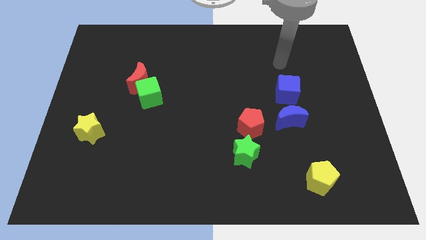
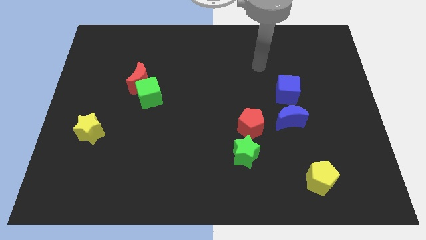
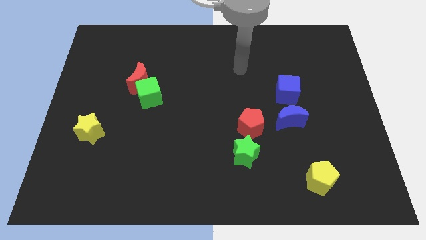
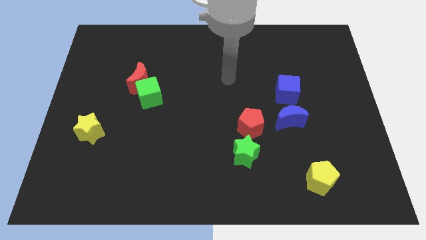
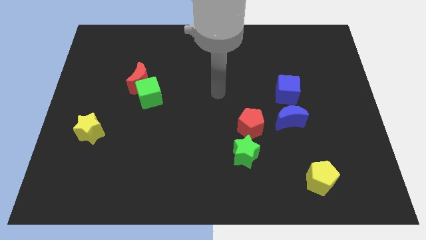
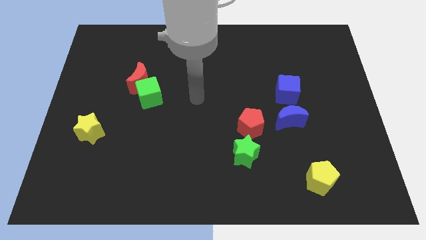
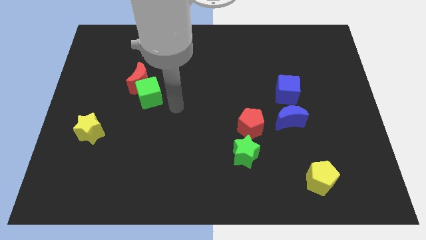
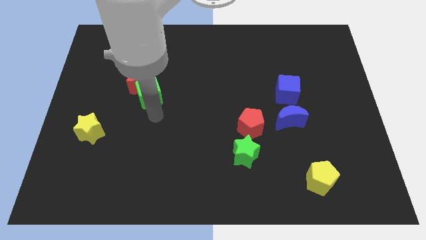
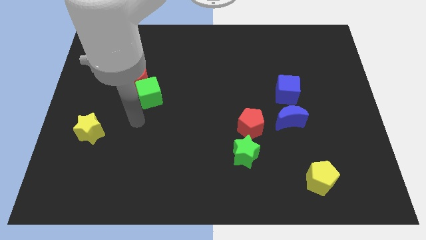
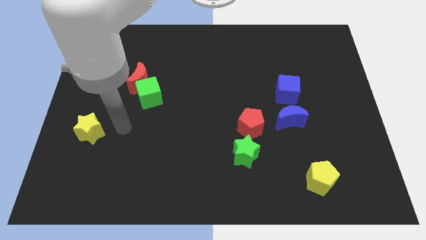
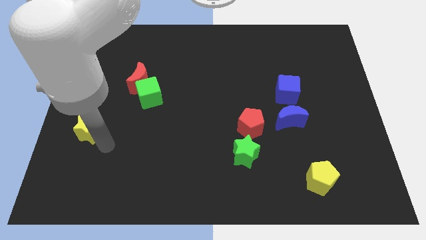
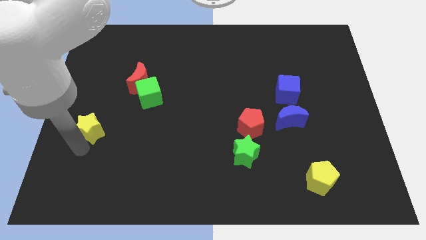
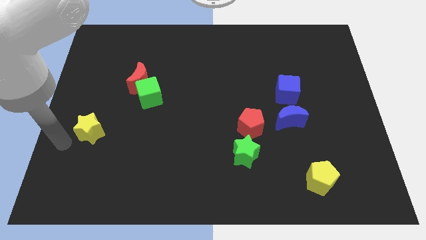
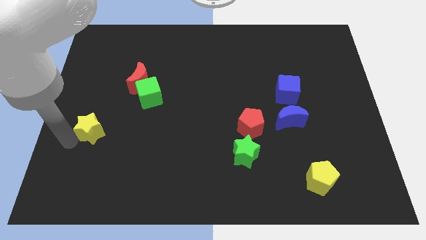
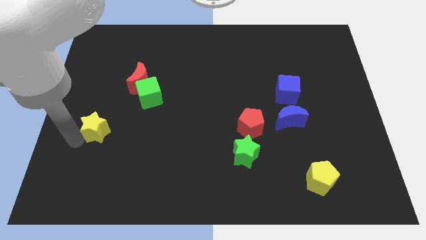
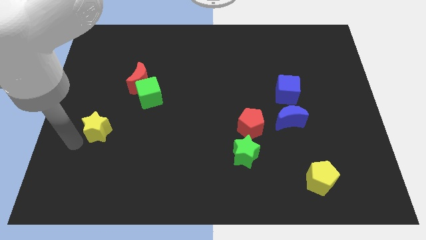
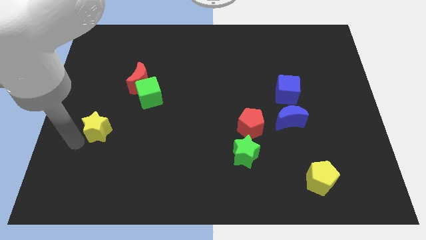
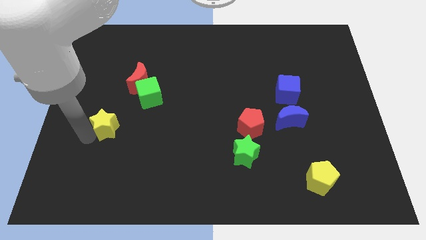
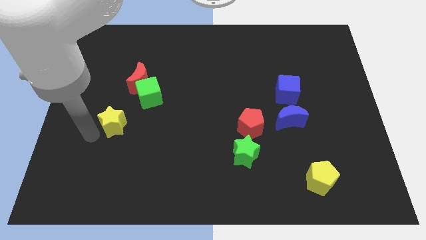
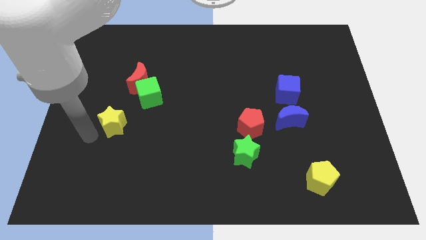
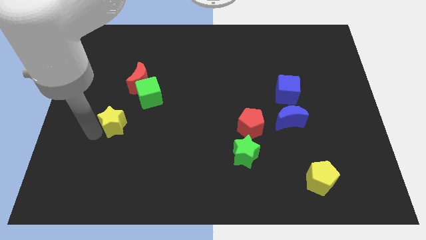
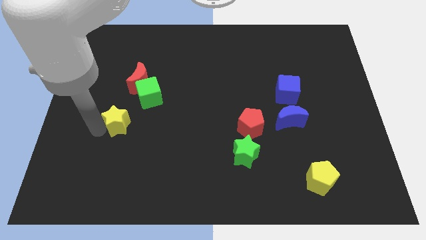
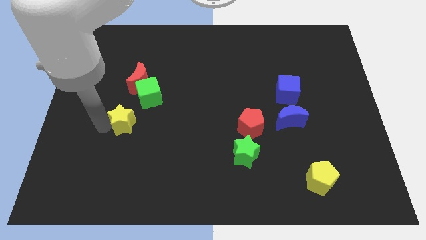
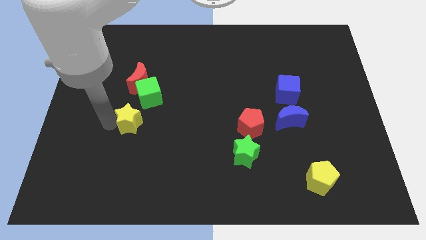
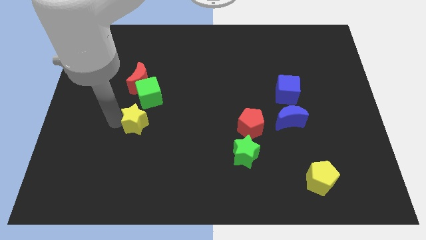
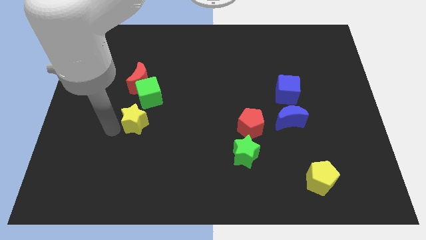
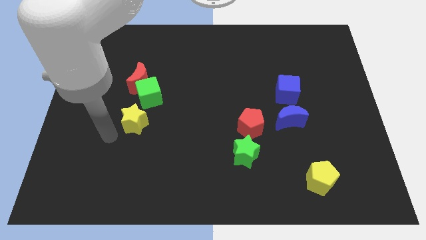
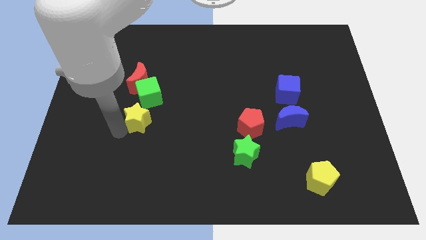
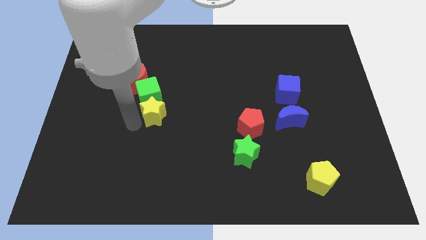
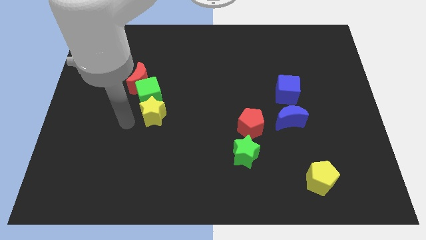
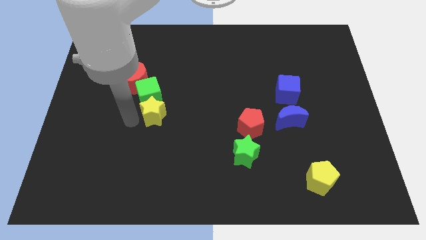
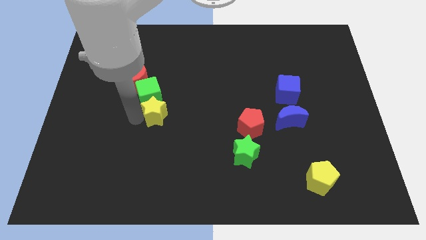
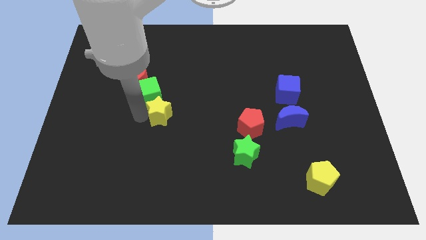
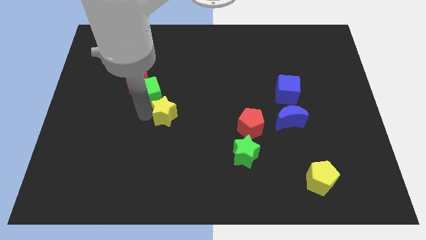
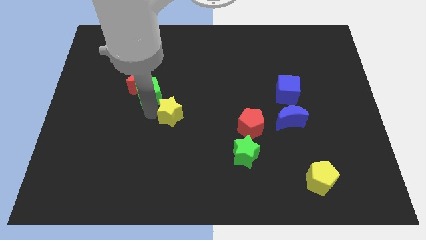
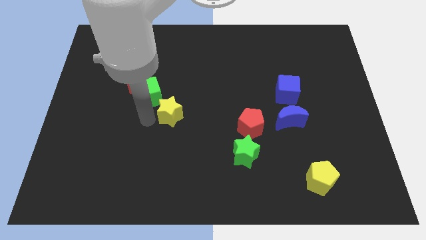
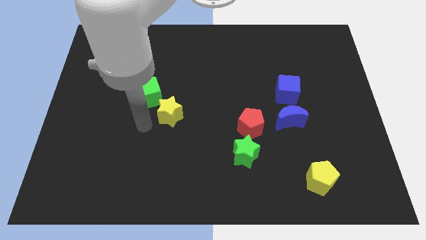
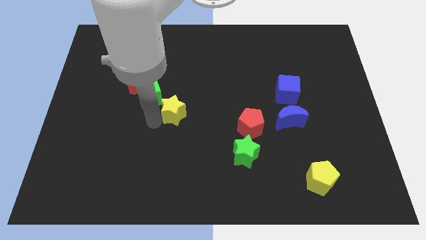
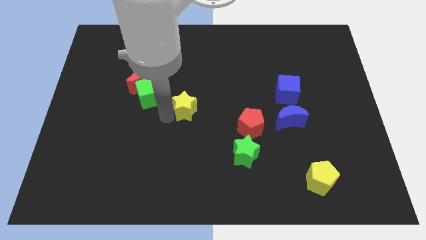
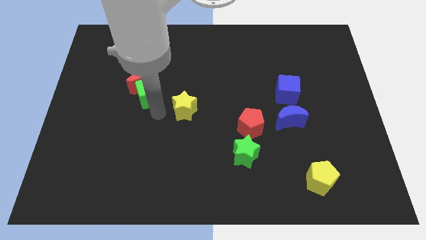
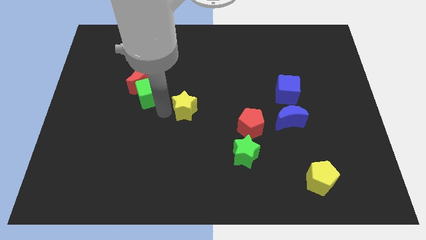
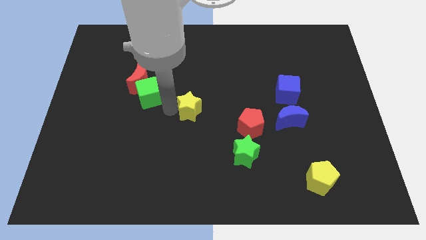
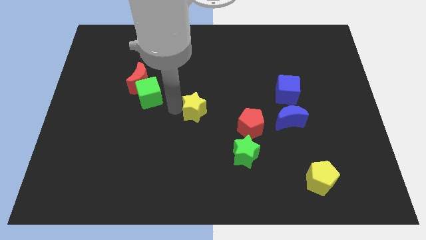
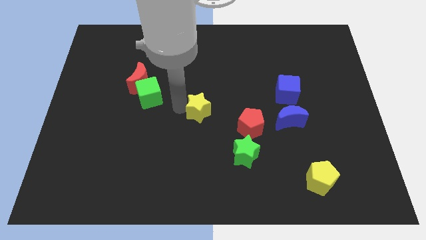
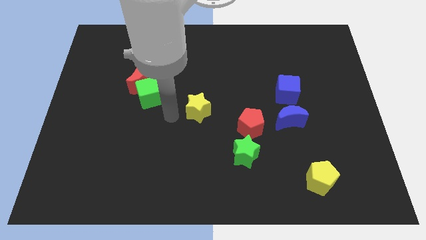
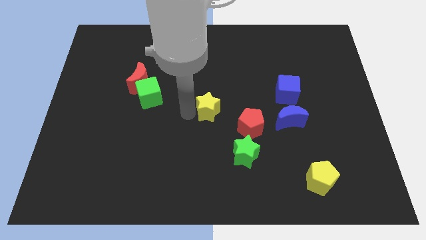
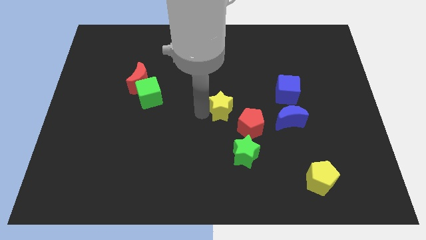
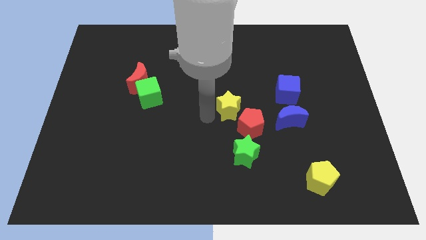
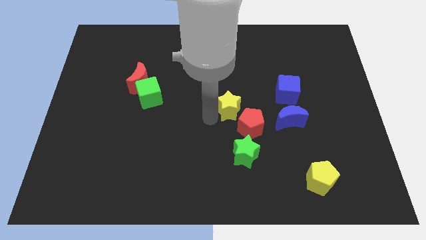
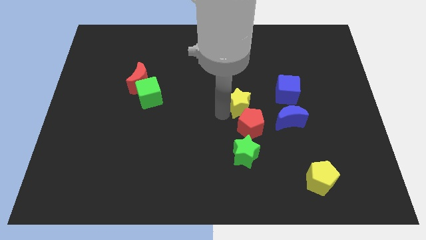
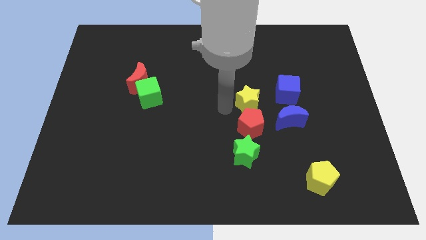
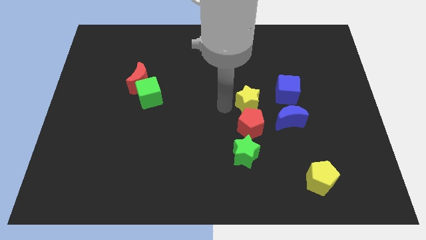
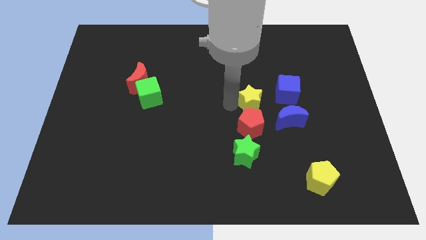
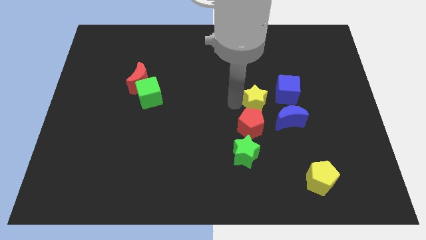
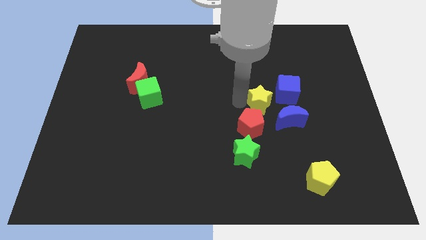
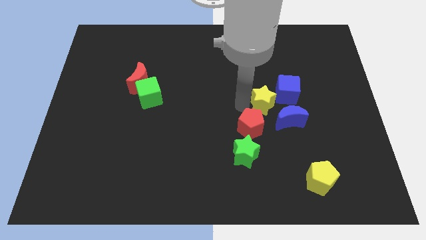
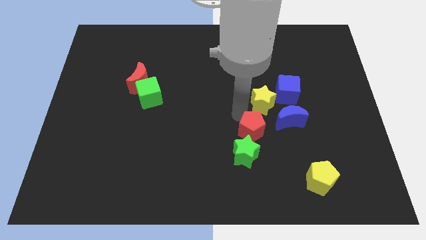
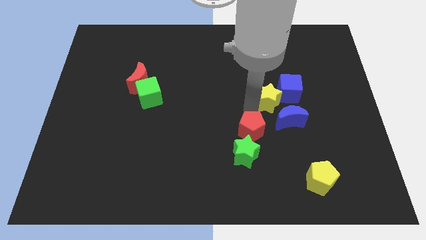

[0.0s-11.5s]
move the yellow star close to the blue cube

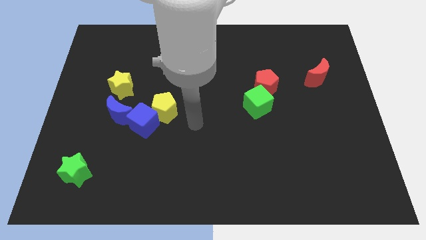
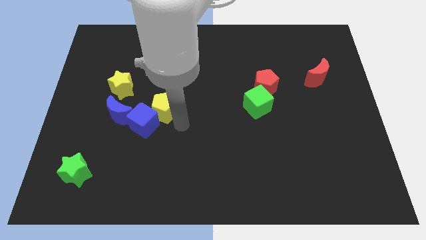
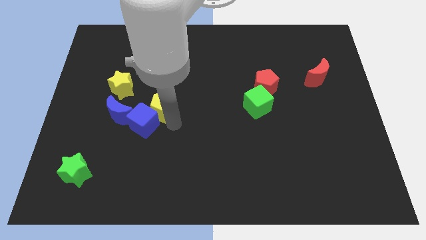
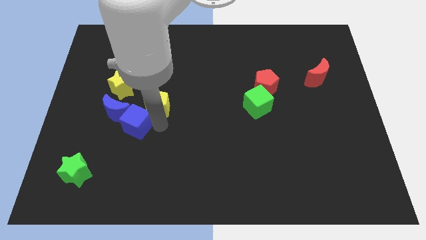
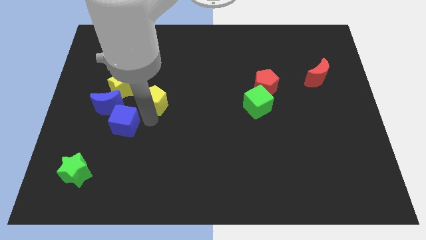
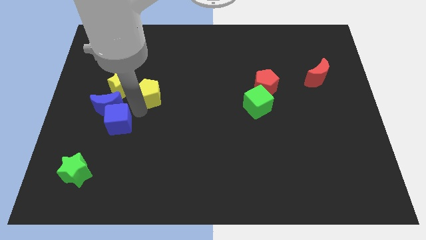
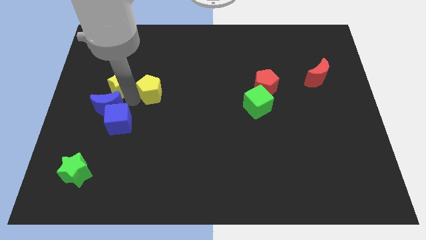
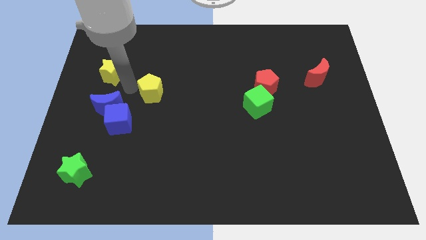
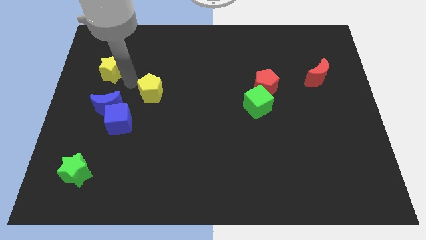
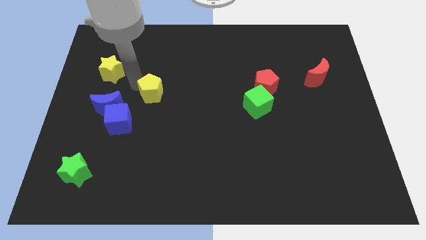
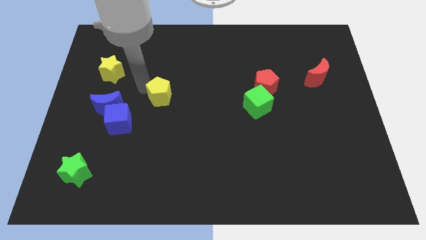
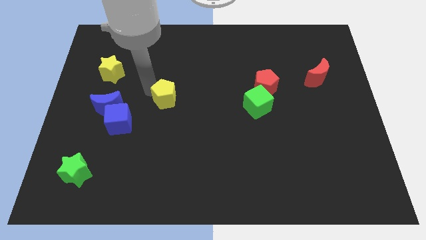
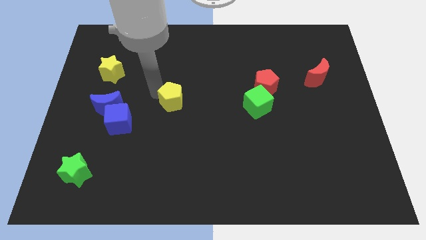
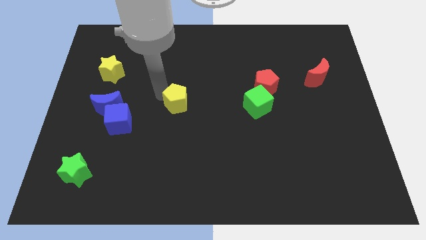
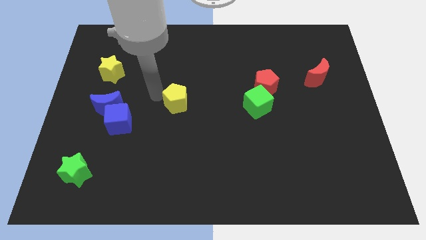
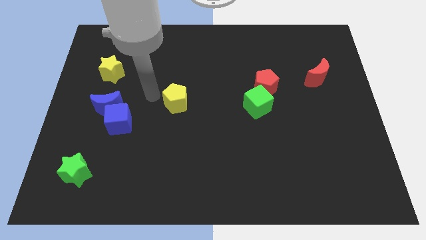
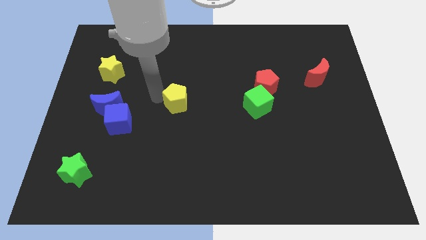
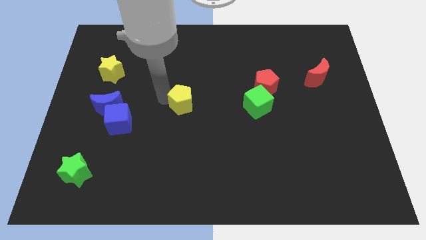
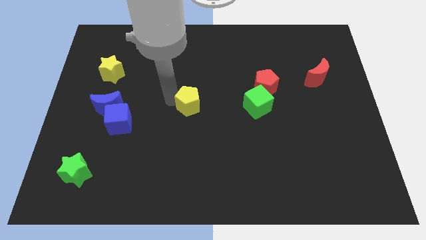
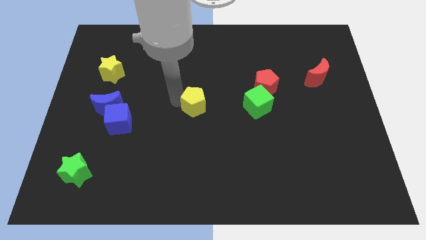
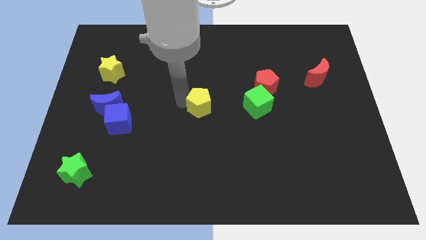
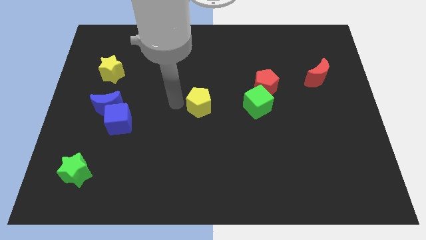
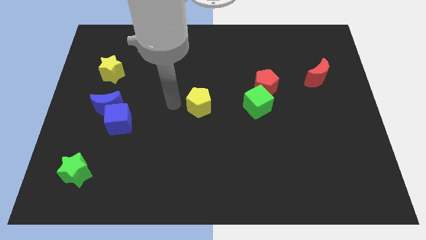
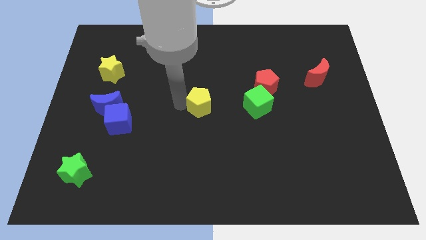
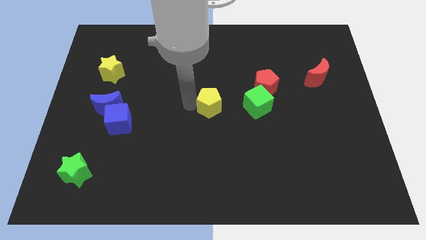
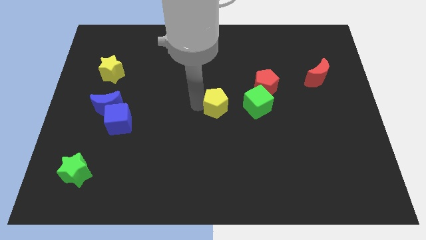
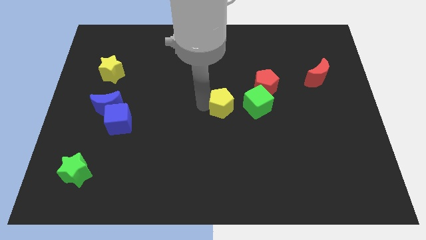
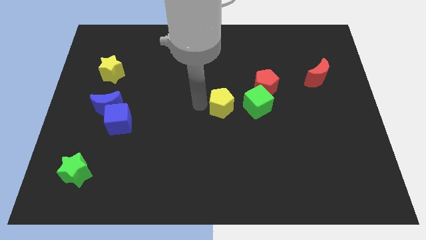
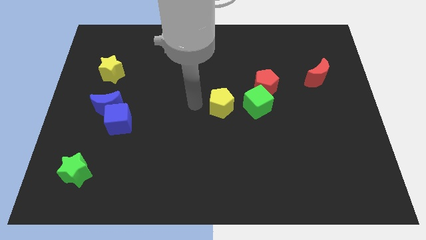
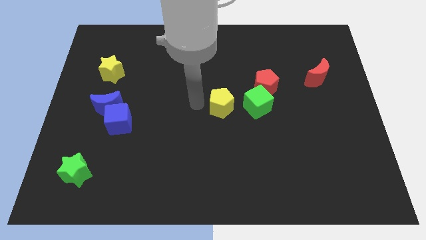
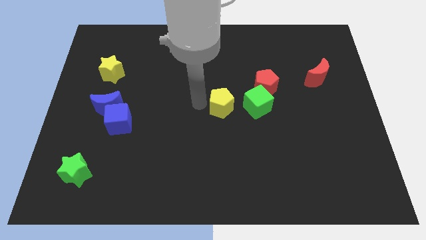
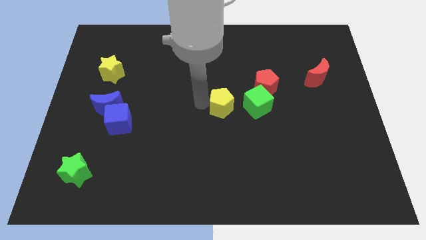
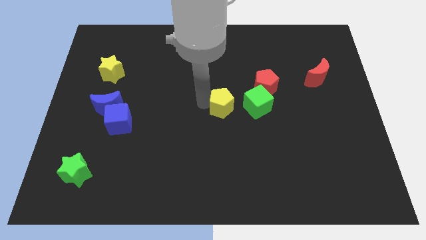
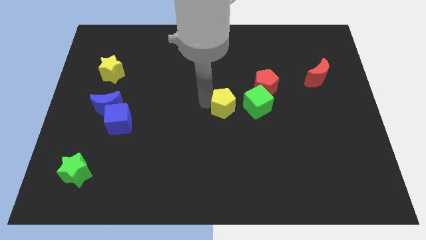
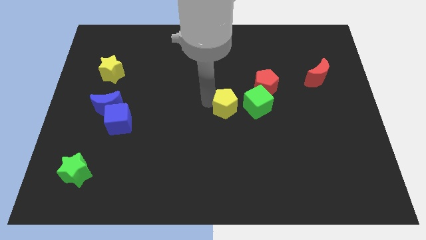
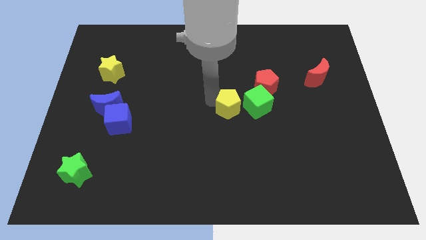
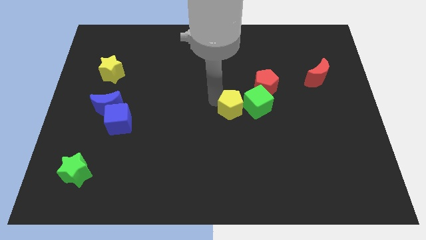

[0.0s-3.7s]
move the yellow pentagon close to the green cube
